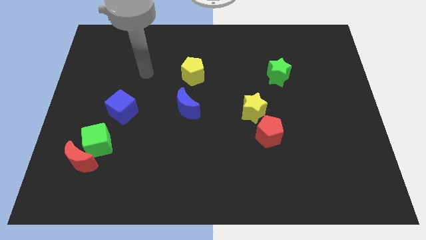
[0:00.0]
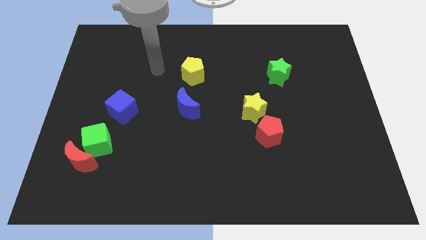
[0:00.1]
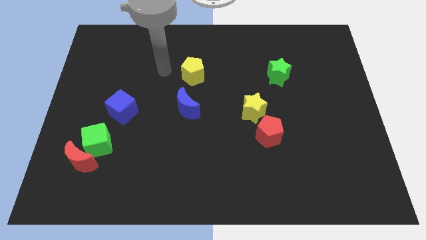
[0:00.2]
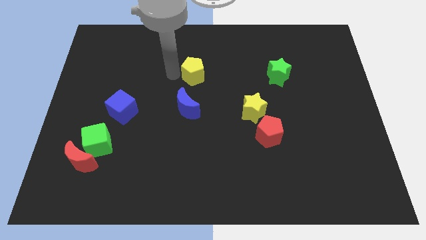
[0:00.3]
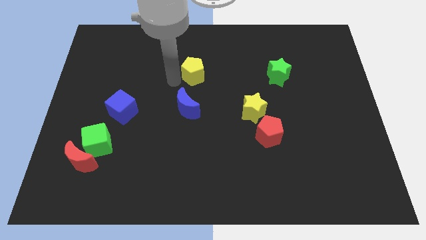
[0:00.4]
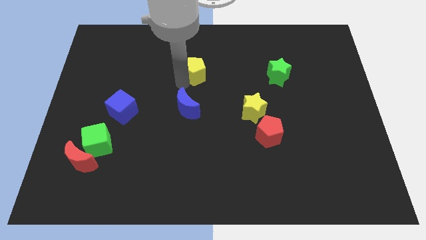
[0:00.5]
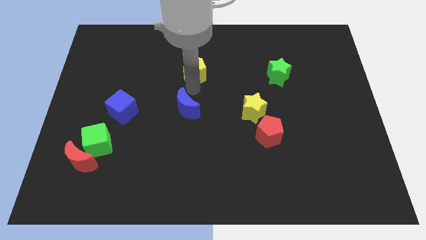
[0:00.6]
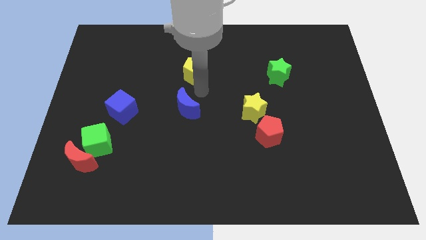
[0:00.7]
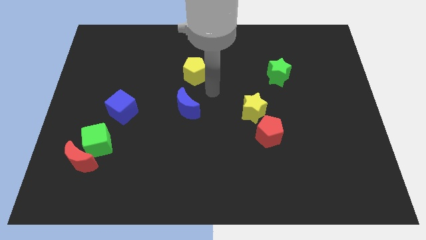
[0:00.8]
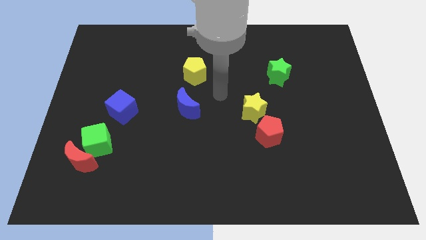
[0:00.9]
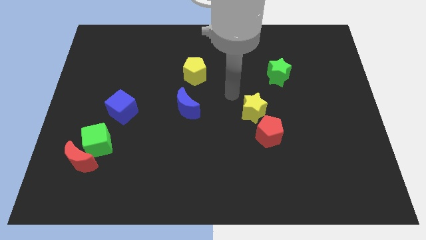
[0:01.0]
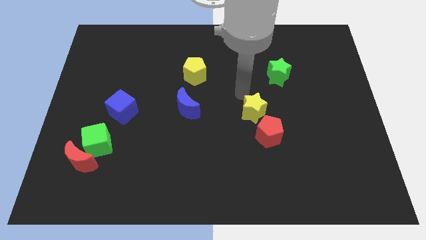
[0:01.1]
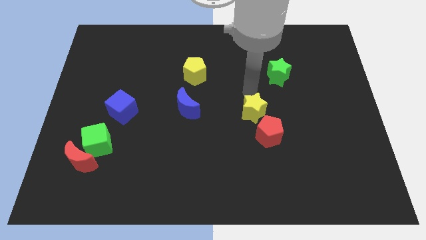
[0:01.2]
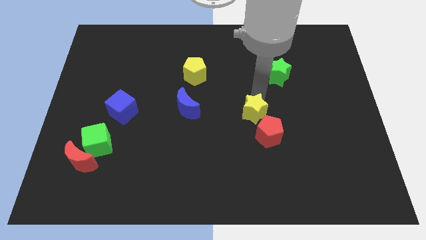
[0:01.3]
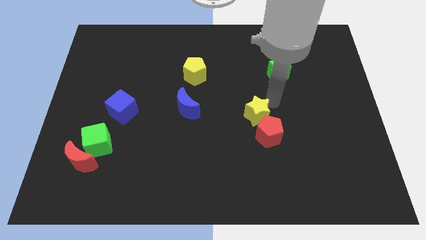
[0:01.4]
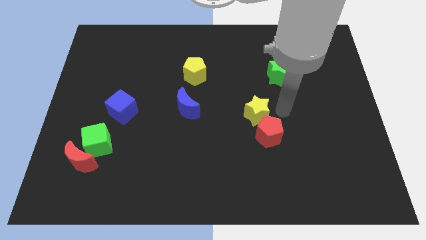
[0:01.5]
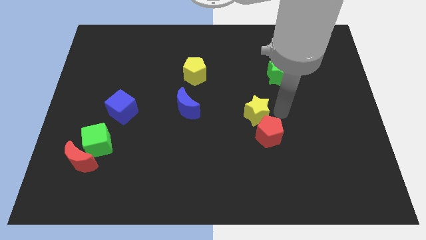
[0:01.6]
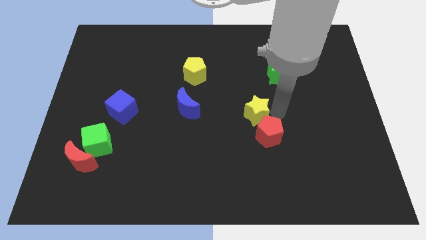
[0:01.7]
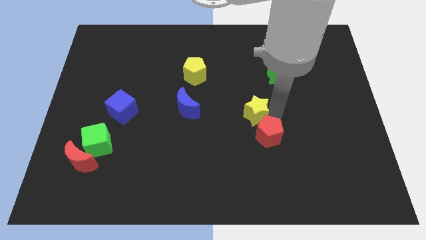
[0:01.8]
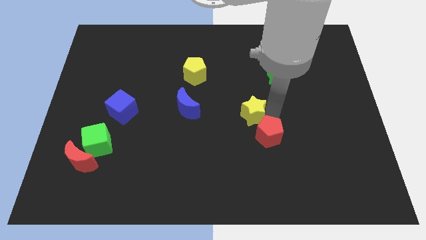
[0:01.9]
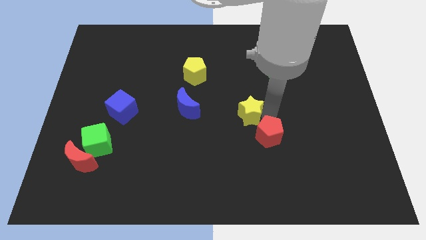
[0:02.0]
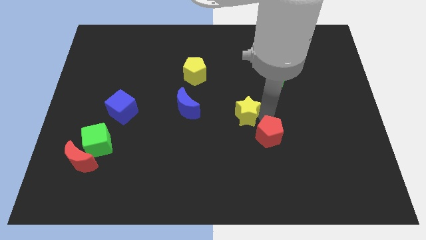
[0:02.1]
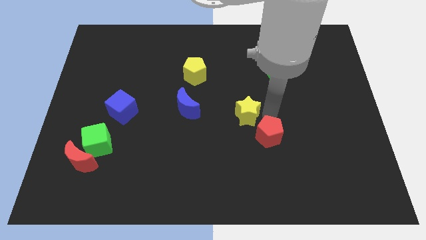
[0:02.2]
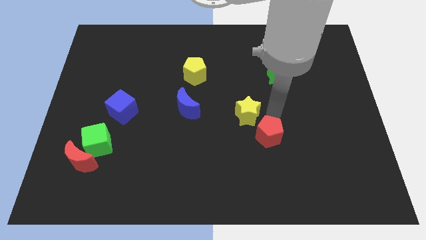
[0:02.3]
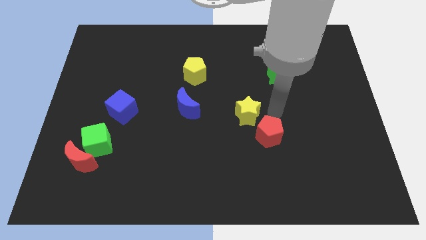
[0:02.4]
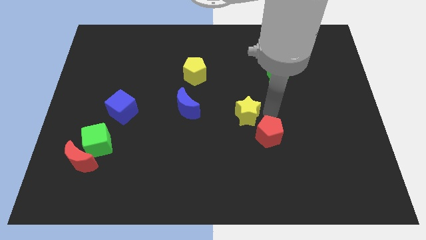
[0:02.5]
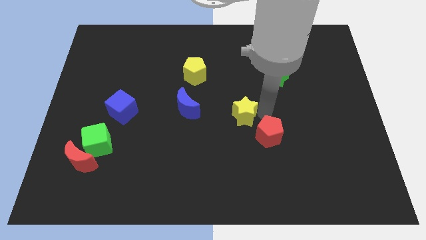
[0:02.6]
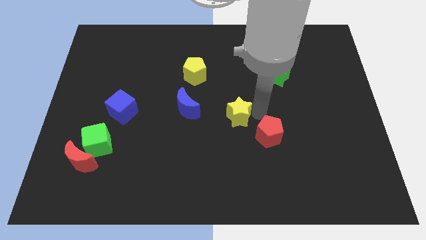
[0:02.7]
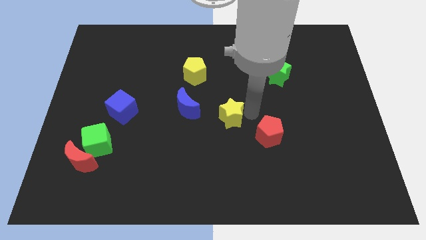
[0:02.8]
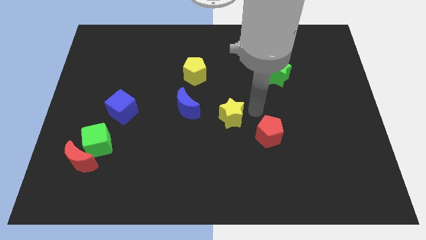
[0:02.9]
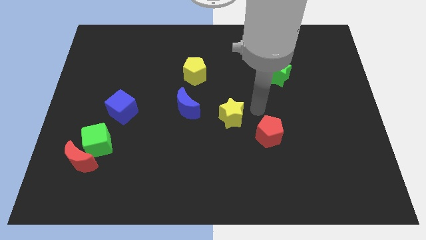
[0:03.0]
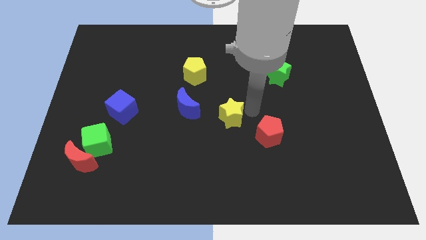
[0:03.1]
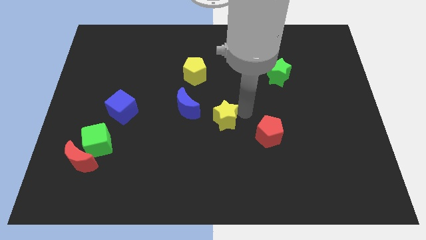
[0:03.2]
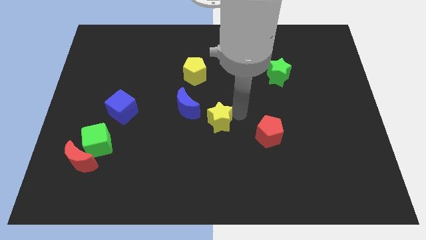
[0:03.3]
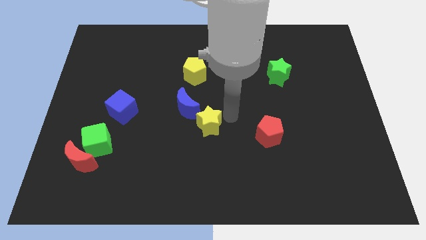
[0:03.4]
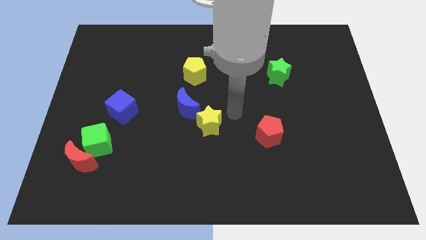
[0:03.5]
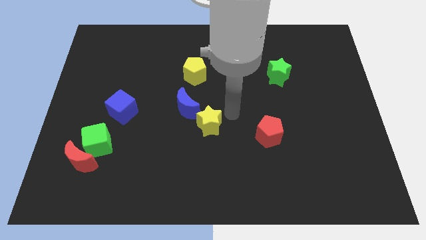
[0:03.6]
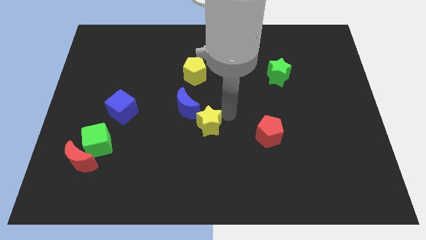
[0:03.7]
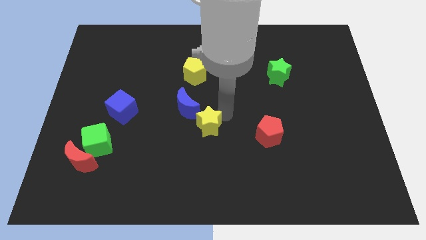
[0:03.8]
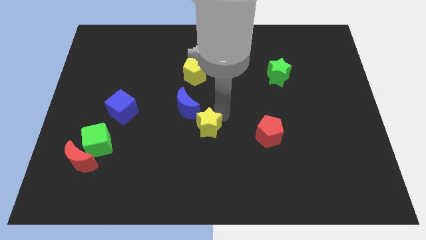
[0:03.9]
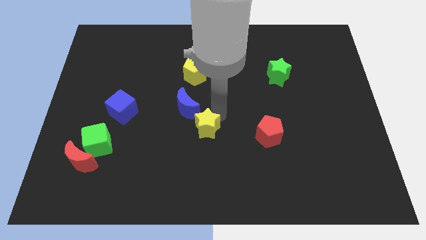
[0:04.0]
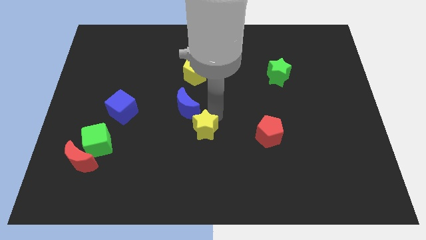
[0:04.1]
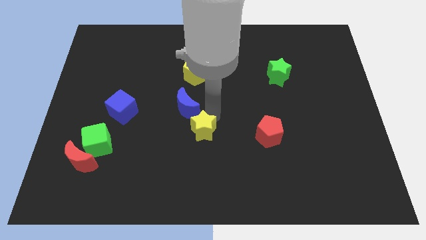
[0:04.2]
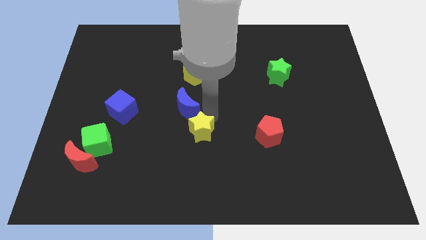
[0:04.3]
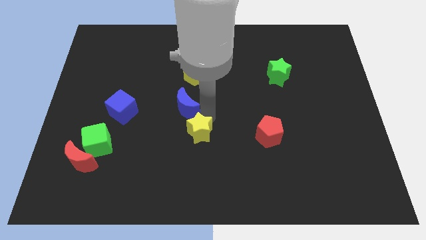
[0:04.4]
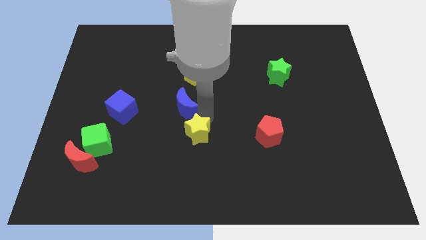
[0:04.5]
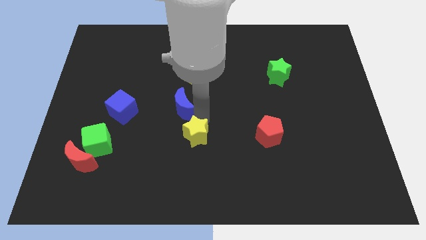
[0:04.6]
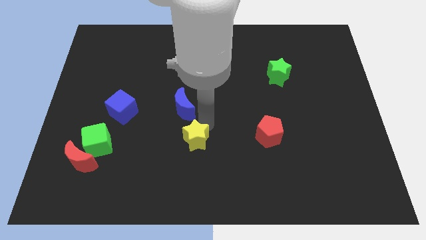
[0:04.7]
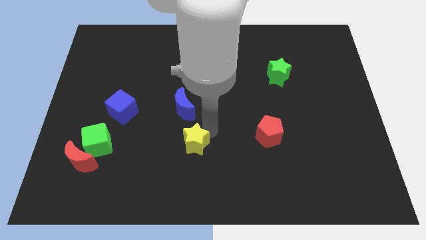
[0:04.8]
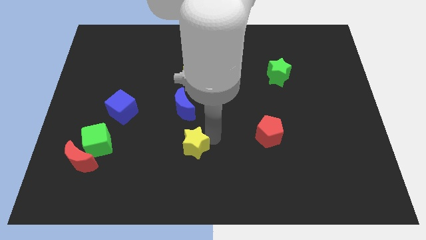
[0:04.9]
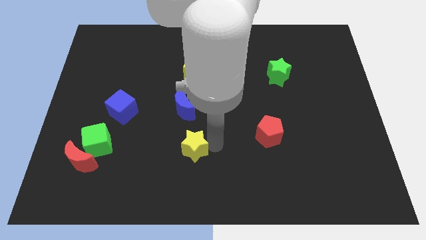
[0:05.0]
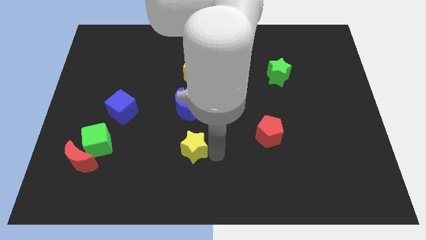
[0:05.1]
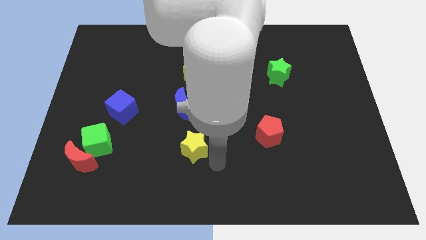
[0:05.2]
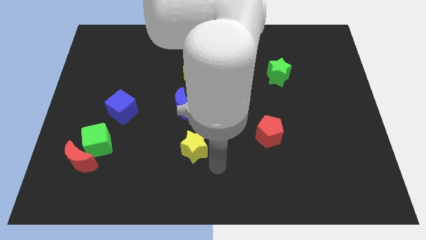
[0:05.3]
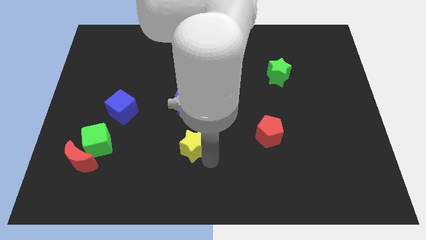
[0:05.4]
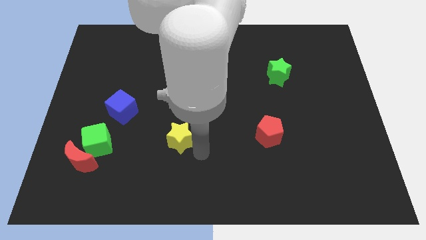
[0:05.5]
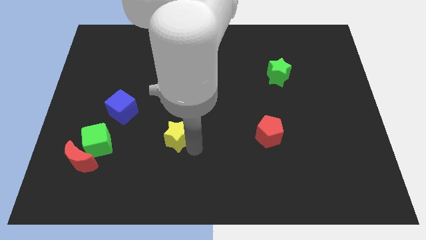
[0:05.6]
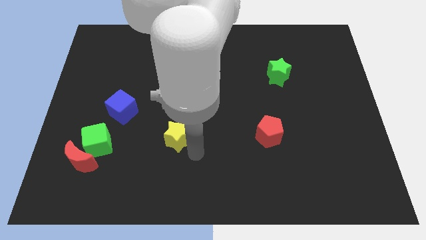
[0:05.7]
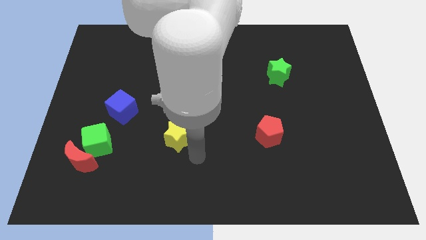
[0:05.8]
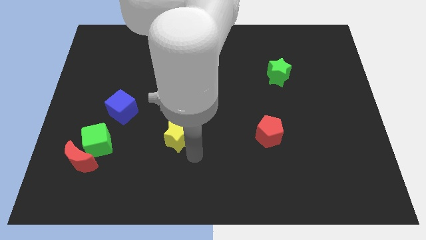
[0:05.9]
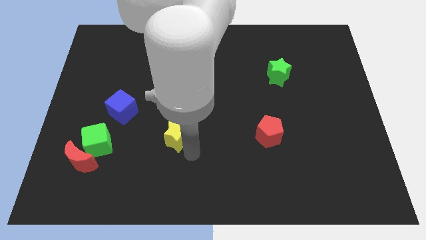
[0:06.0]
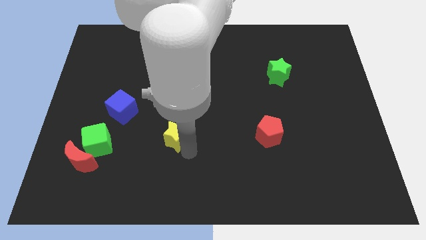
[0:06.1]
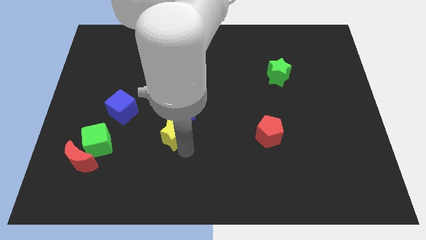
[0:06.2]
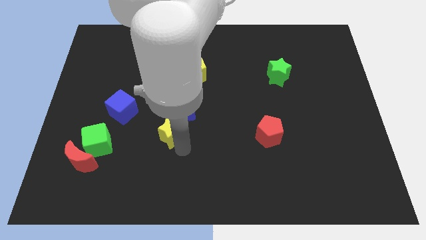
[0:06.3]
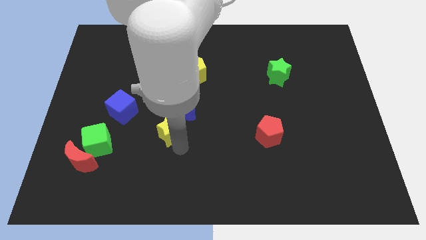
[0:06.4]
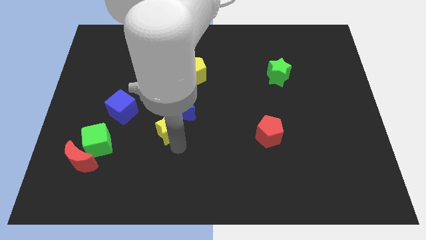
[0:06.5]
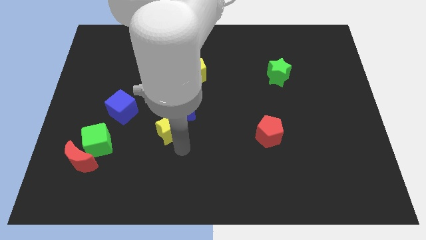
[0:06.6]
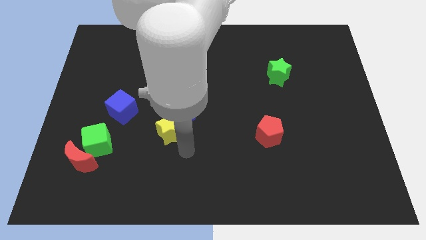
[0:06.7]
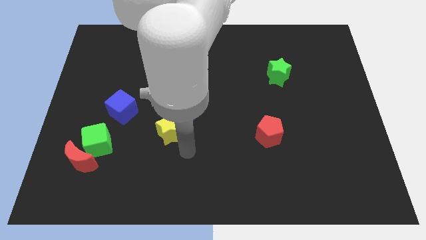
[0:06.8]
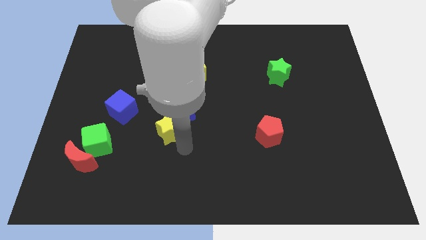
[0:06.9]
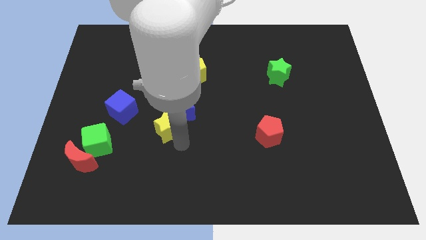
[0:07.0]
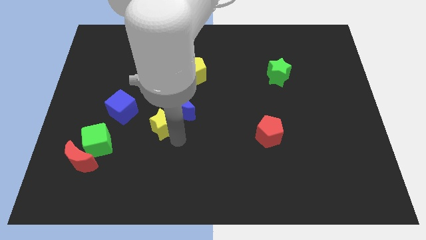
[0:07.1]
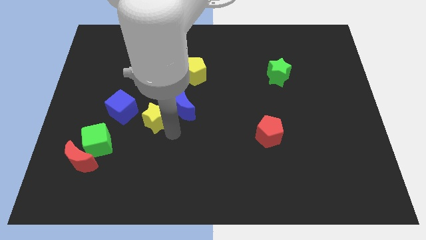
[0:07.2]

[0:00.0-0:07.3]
slide the yellow star to the left of the blue moon
